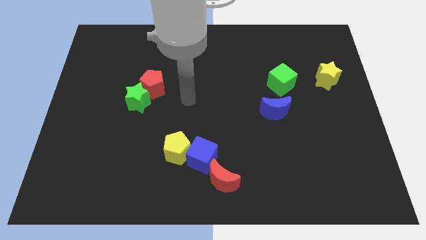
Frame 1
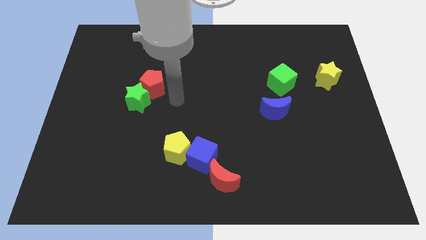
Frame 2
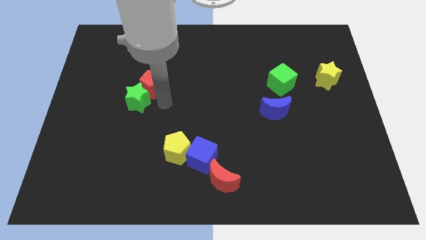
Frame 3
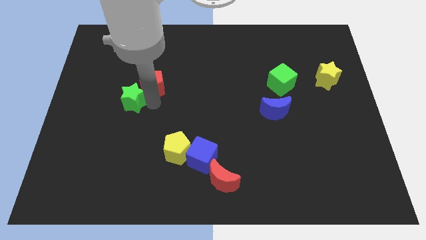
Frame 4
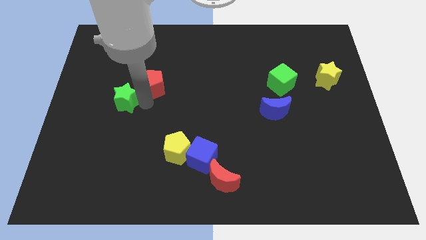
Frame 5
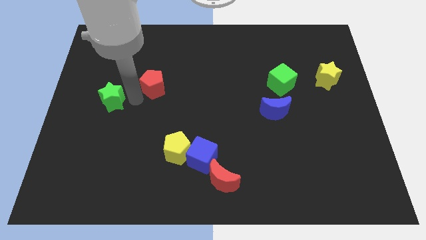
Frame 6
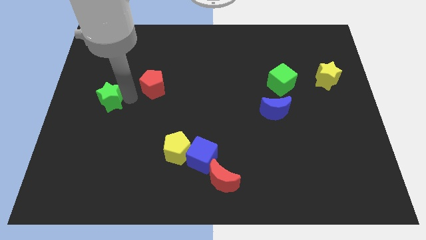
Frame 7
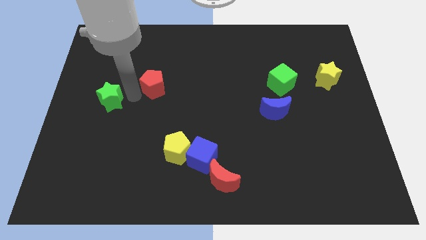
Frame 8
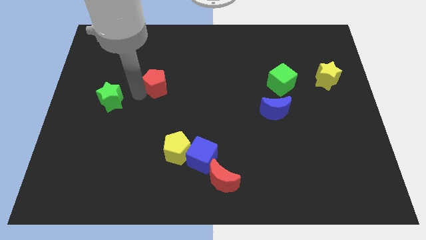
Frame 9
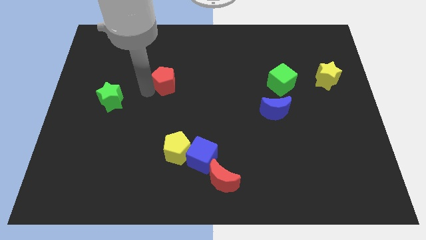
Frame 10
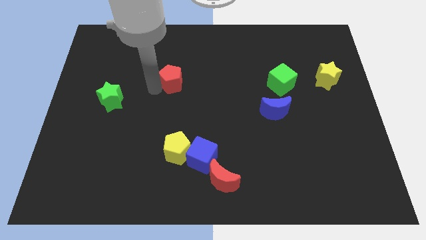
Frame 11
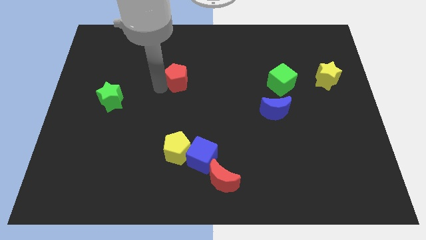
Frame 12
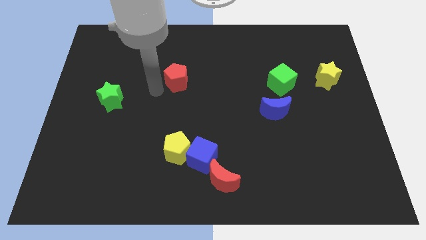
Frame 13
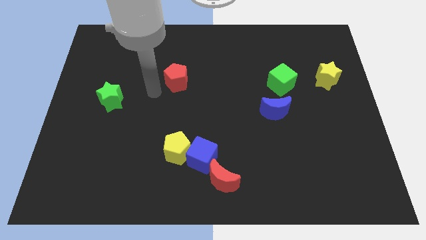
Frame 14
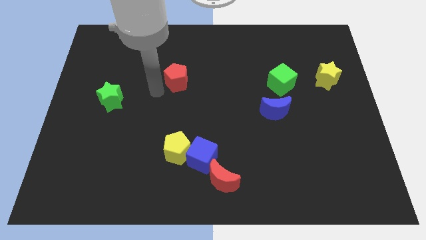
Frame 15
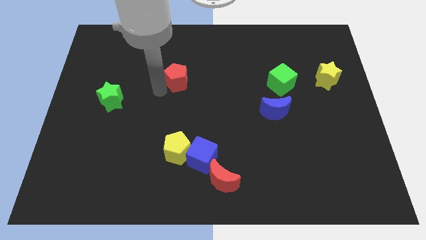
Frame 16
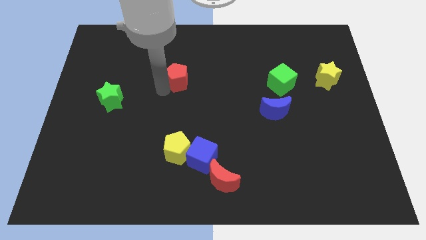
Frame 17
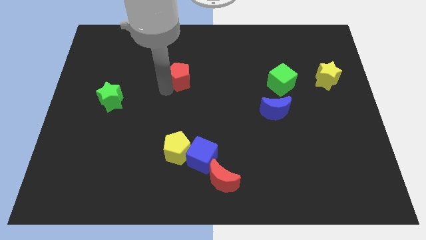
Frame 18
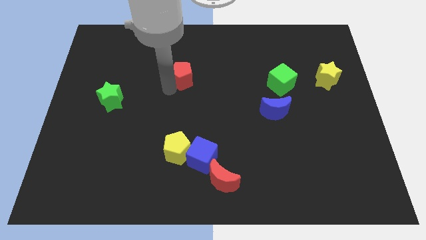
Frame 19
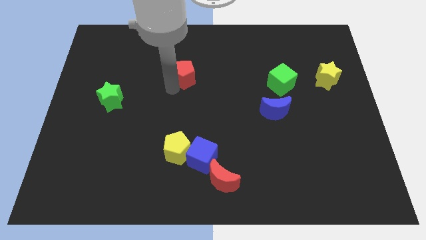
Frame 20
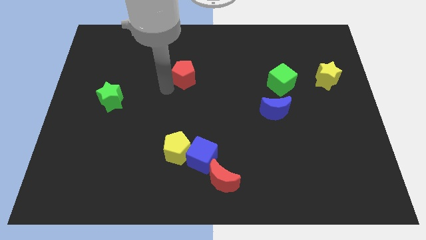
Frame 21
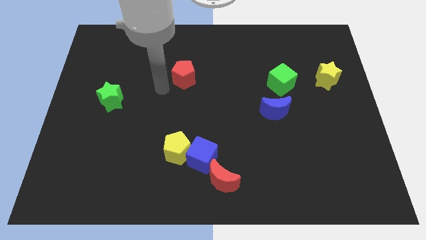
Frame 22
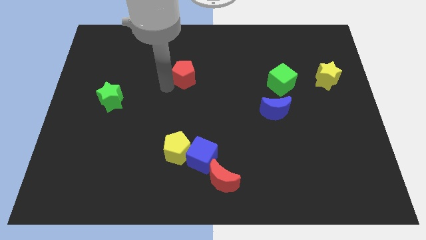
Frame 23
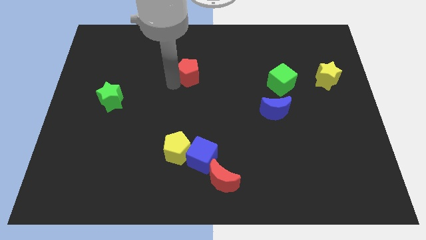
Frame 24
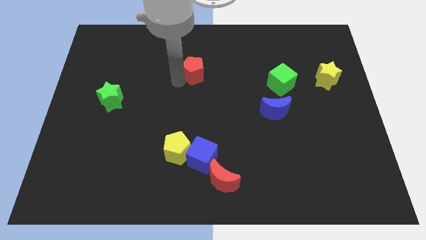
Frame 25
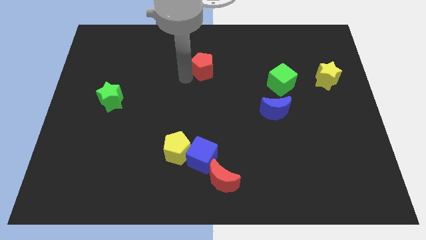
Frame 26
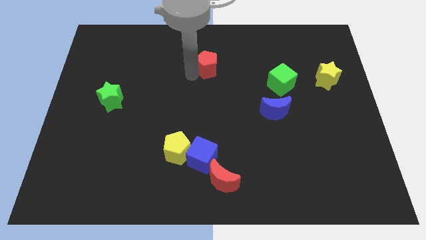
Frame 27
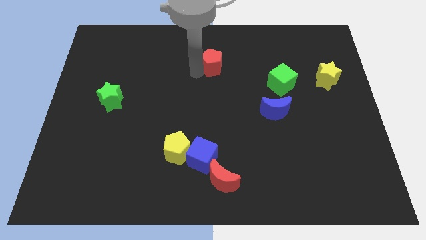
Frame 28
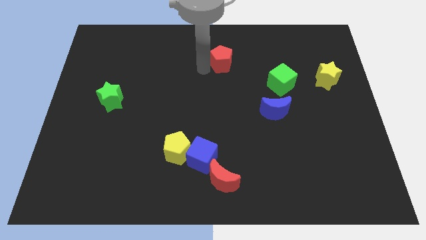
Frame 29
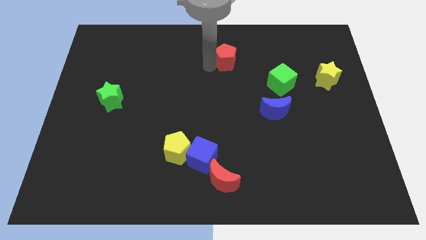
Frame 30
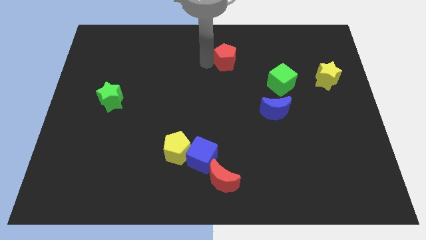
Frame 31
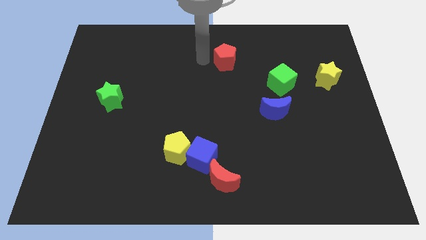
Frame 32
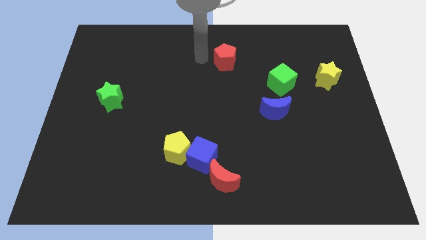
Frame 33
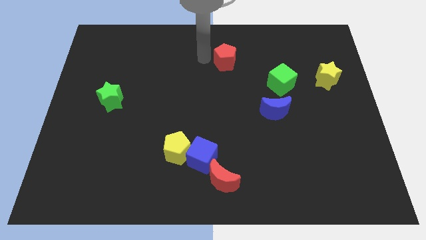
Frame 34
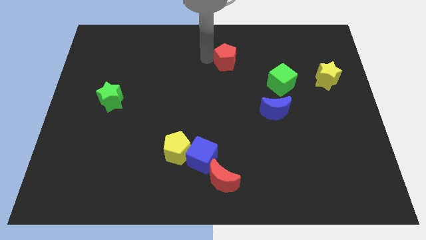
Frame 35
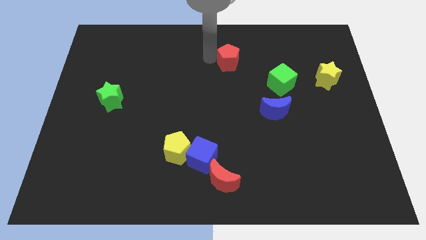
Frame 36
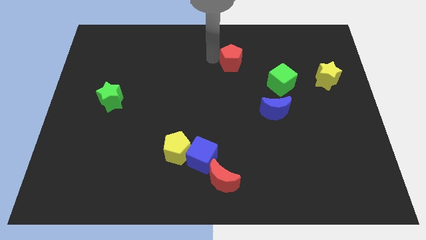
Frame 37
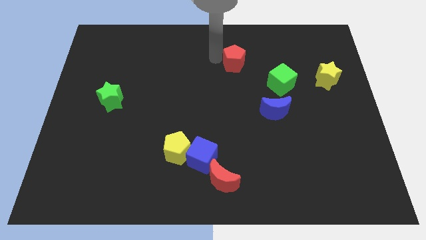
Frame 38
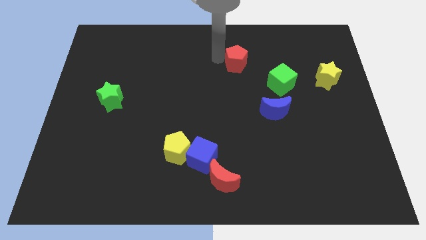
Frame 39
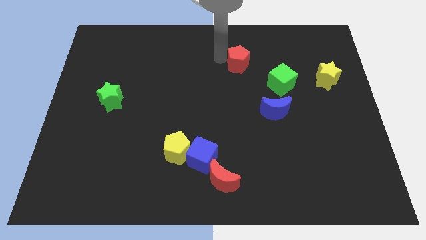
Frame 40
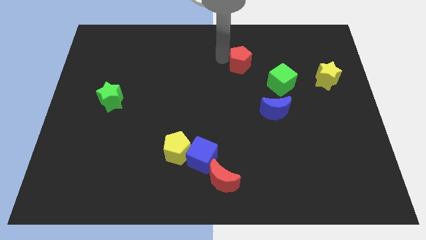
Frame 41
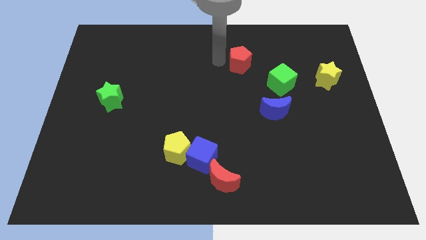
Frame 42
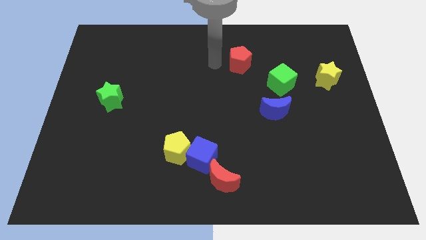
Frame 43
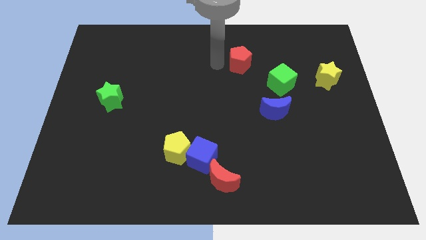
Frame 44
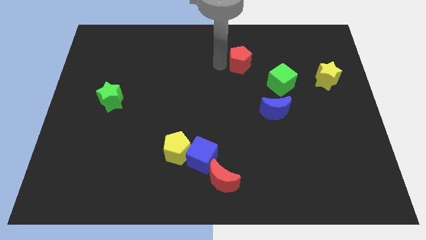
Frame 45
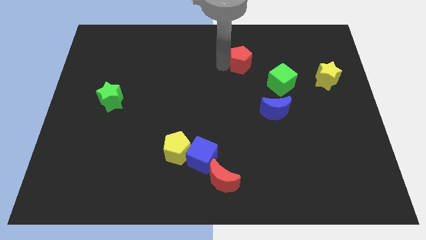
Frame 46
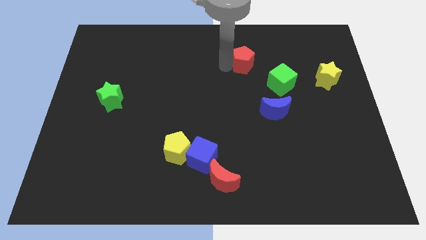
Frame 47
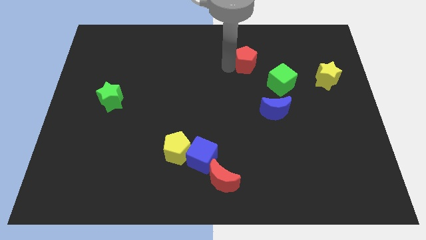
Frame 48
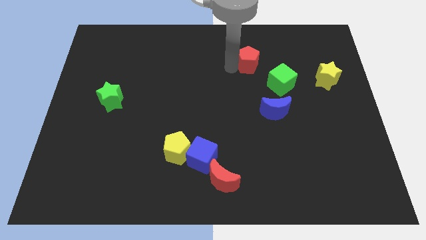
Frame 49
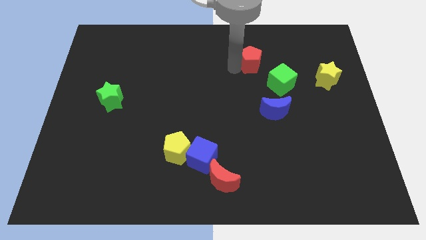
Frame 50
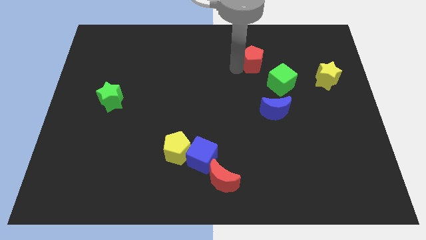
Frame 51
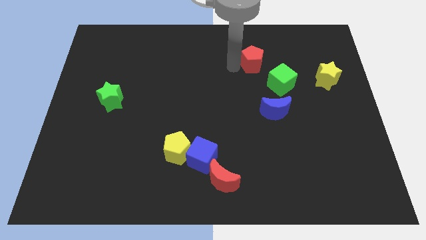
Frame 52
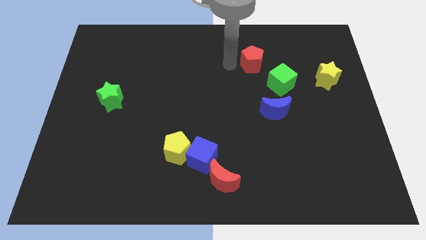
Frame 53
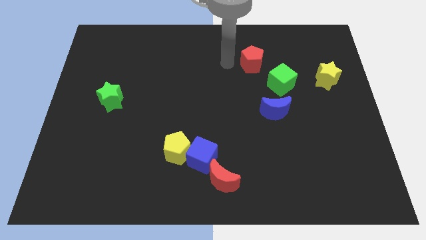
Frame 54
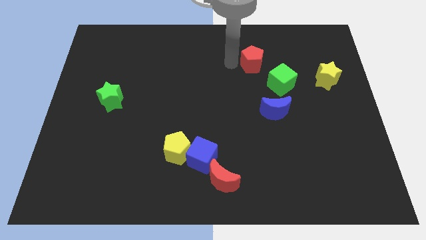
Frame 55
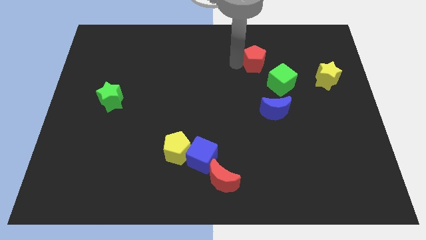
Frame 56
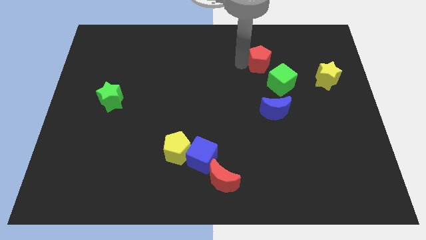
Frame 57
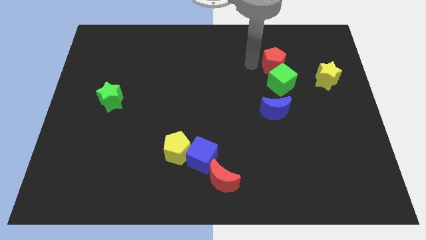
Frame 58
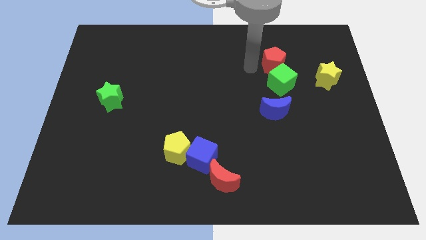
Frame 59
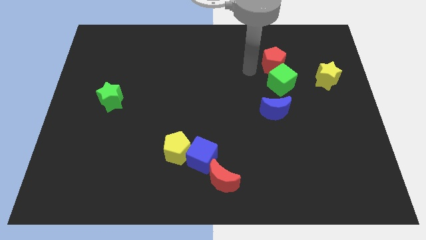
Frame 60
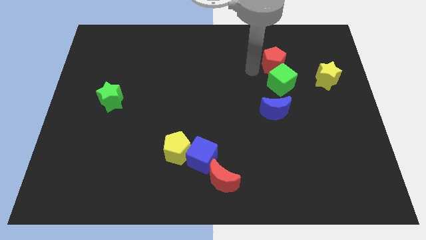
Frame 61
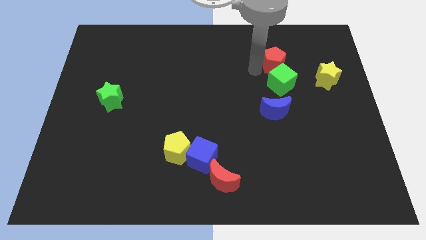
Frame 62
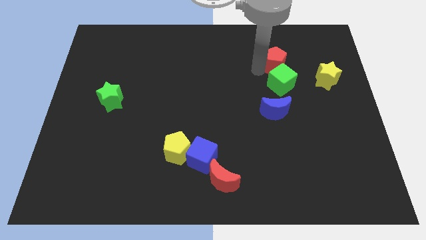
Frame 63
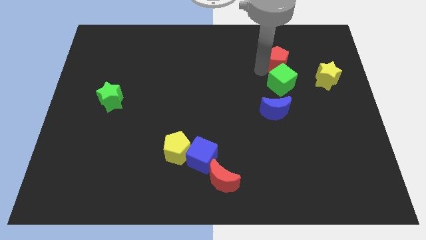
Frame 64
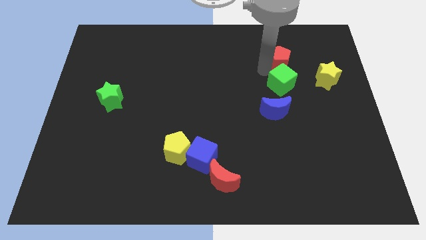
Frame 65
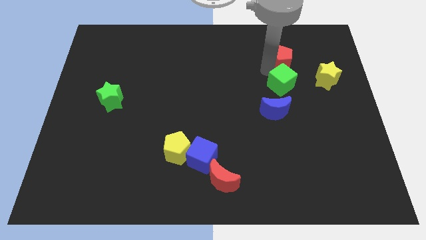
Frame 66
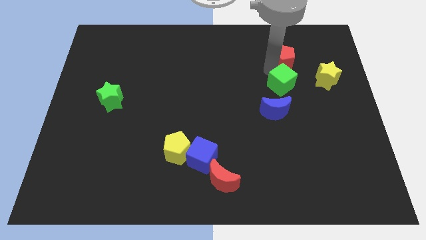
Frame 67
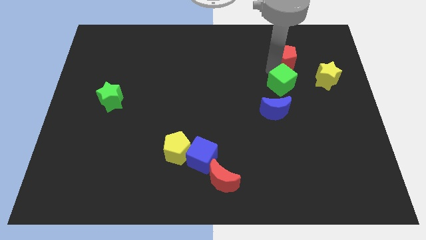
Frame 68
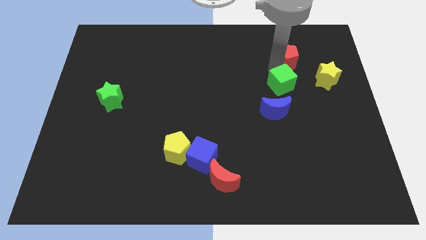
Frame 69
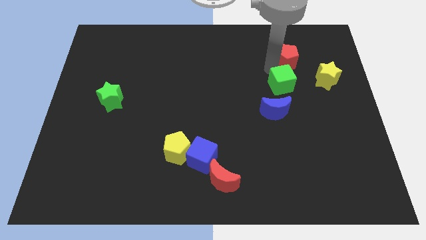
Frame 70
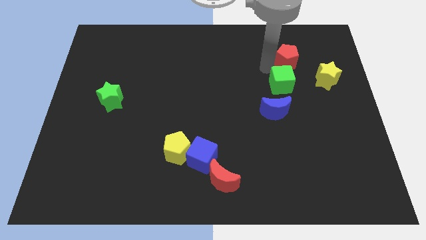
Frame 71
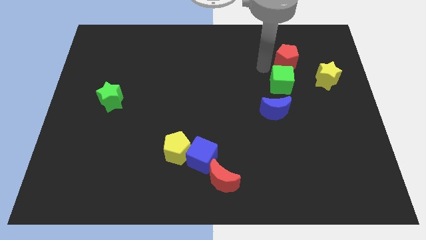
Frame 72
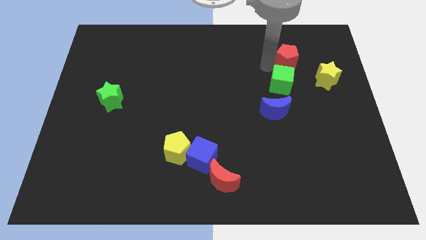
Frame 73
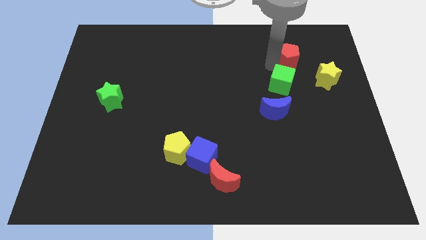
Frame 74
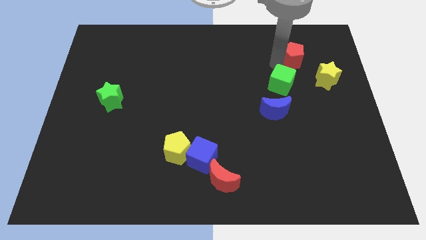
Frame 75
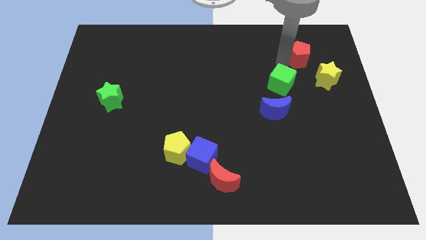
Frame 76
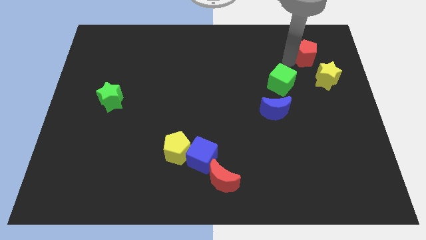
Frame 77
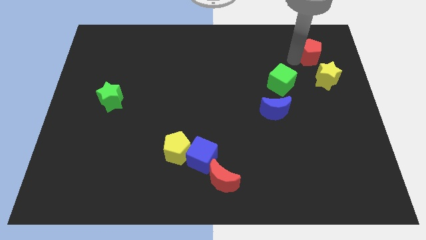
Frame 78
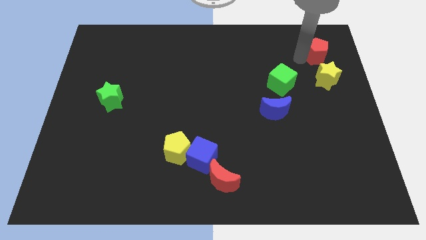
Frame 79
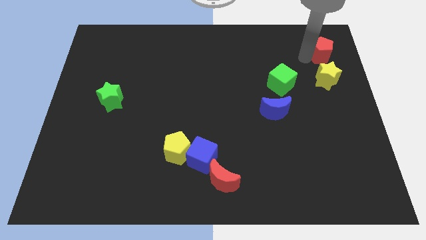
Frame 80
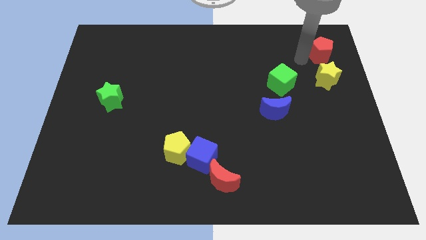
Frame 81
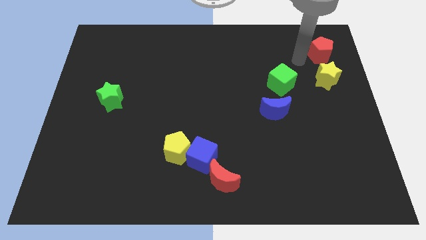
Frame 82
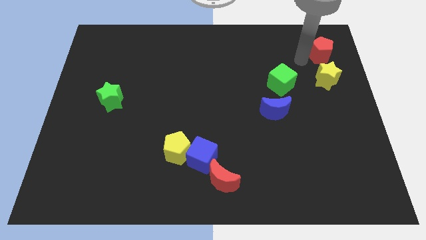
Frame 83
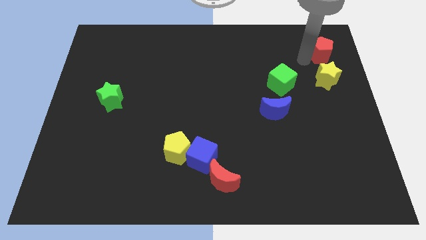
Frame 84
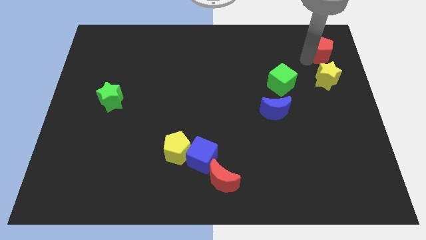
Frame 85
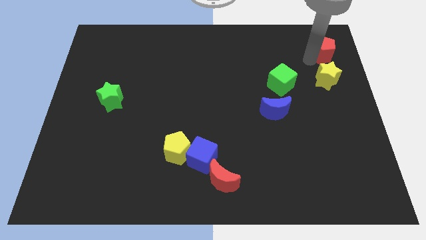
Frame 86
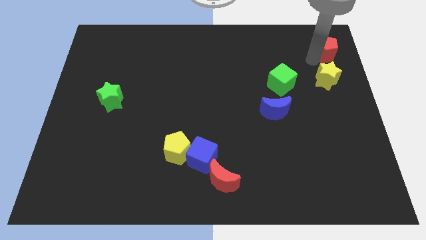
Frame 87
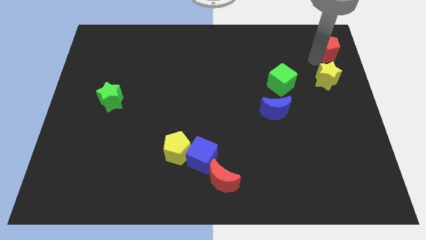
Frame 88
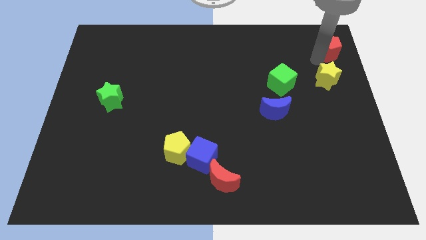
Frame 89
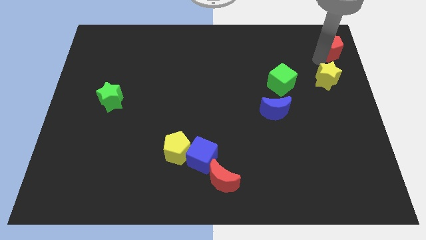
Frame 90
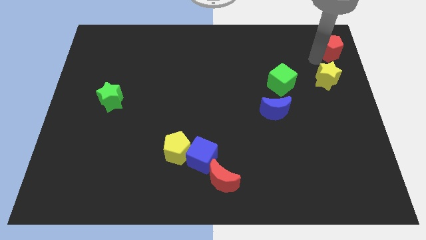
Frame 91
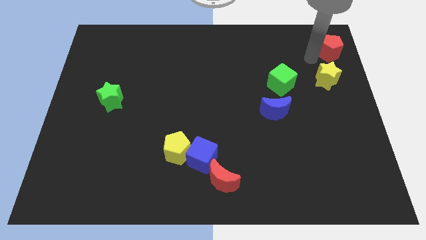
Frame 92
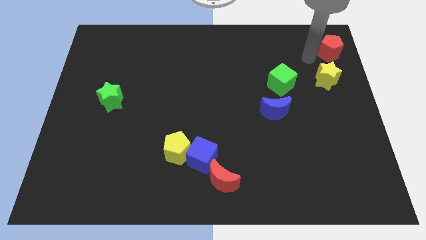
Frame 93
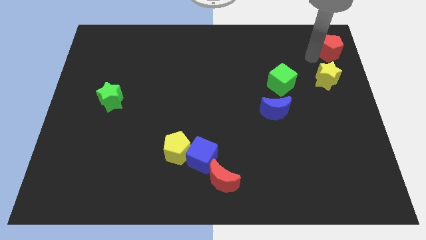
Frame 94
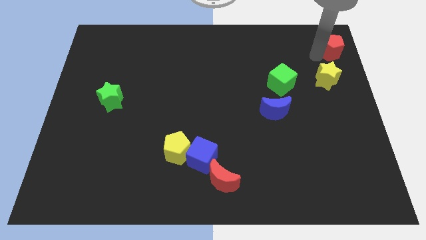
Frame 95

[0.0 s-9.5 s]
slide the red pentagon to the upper right corner
